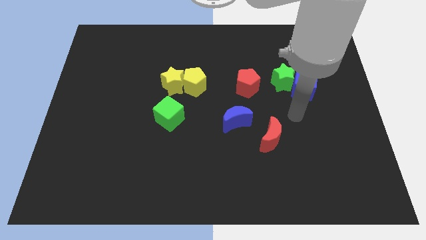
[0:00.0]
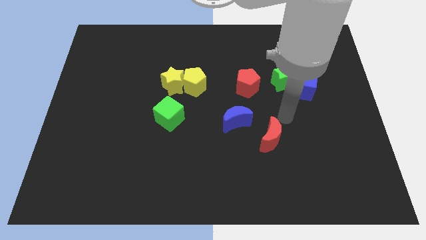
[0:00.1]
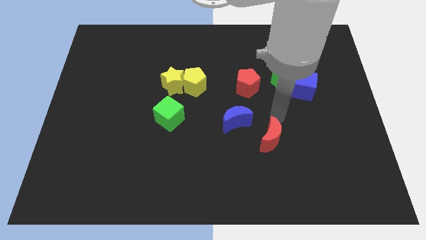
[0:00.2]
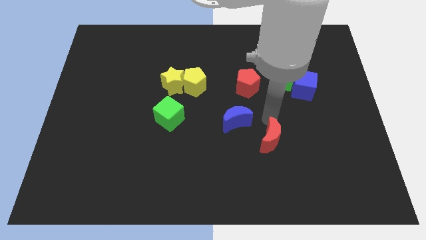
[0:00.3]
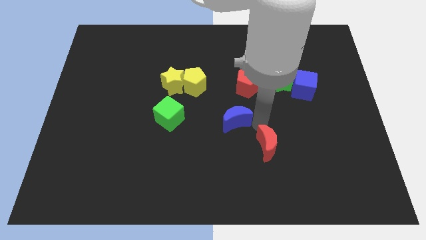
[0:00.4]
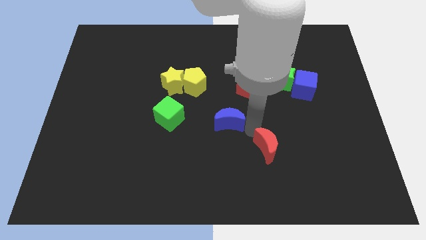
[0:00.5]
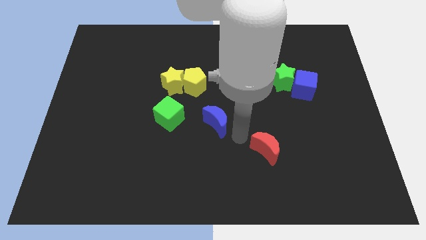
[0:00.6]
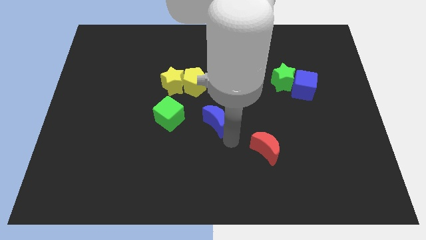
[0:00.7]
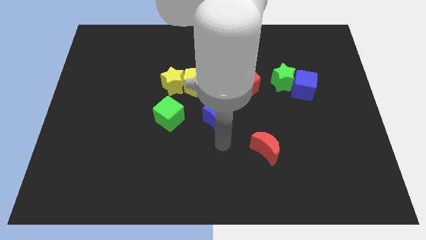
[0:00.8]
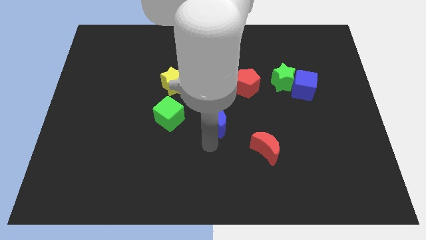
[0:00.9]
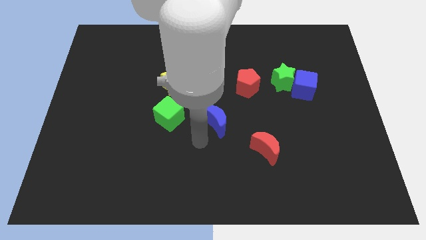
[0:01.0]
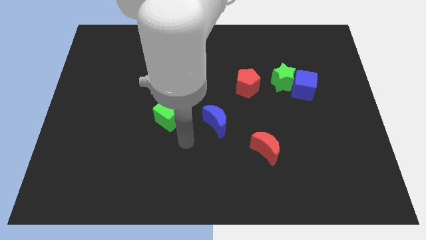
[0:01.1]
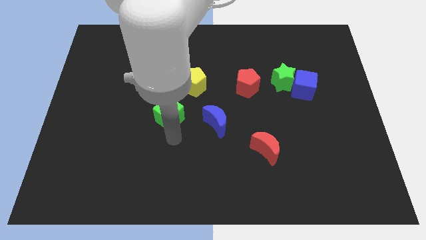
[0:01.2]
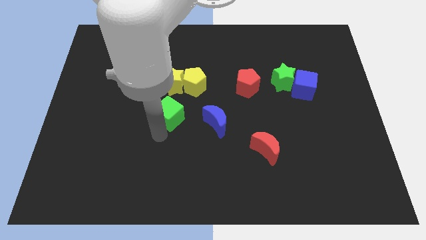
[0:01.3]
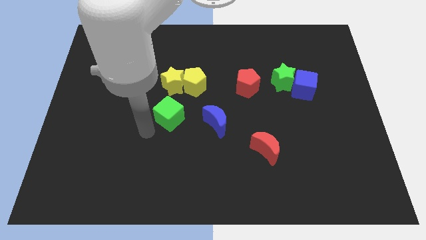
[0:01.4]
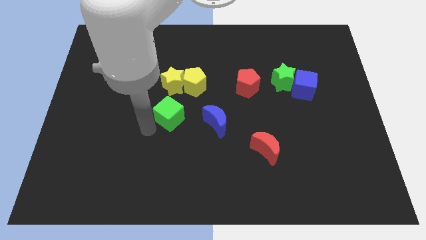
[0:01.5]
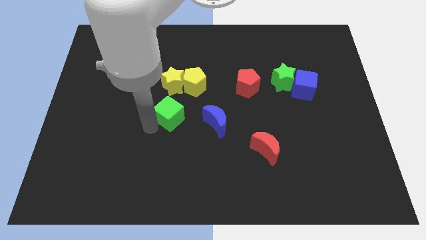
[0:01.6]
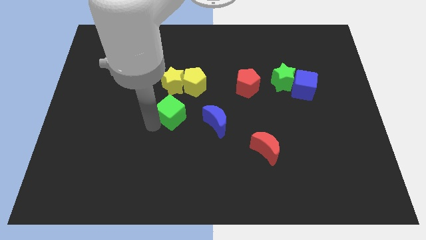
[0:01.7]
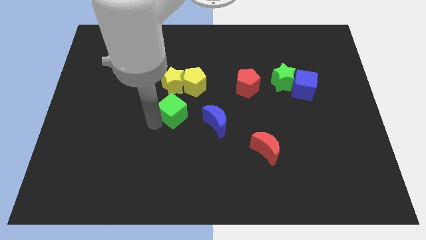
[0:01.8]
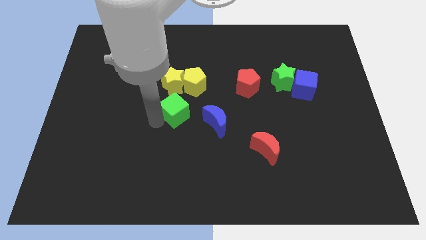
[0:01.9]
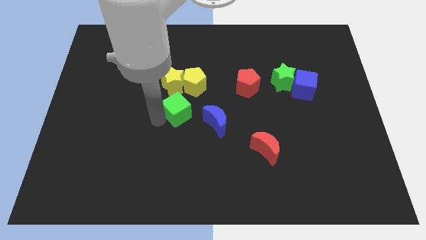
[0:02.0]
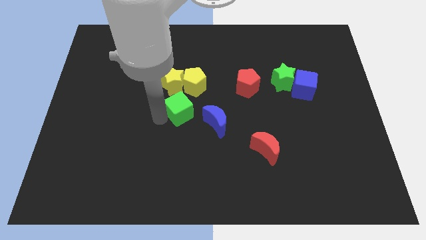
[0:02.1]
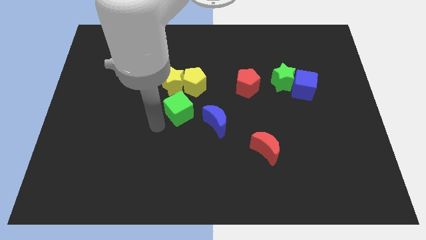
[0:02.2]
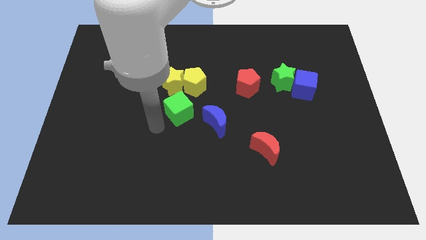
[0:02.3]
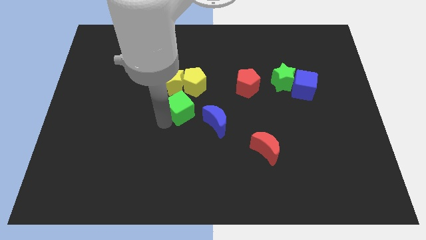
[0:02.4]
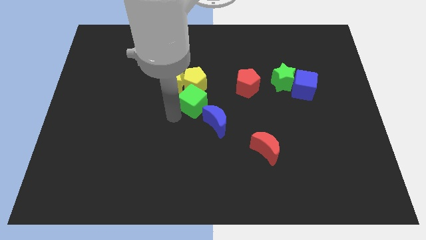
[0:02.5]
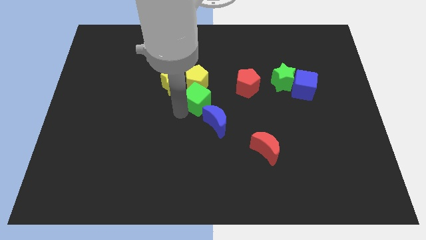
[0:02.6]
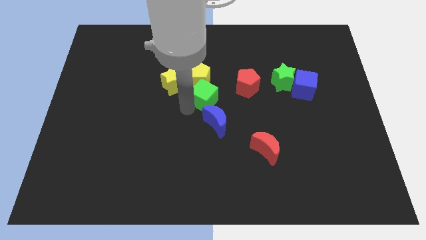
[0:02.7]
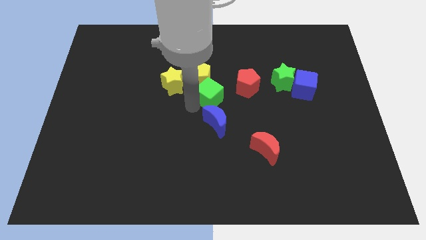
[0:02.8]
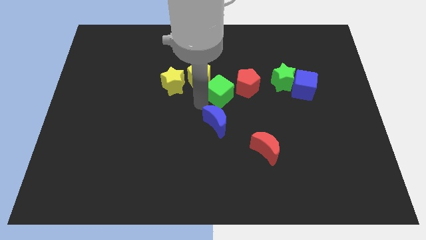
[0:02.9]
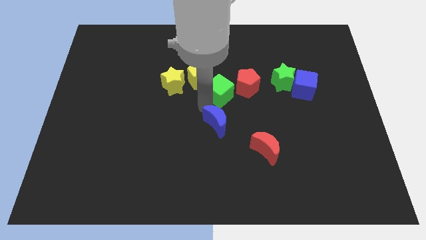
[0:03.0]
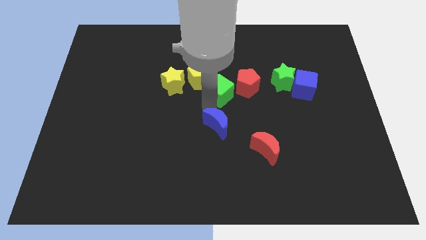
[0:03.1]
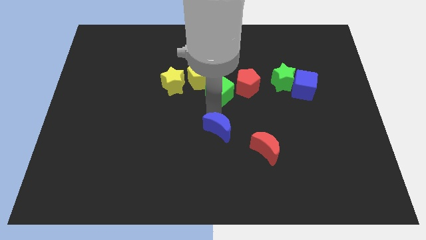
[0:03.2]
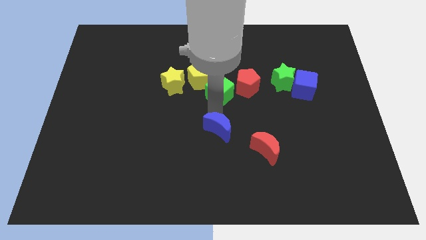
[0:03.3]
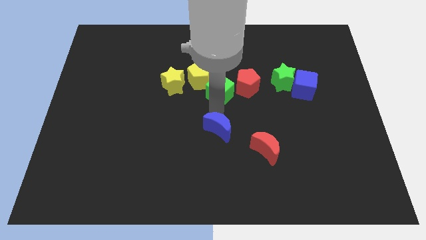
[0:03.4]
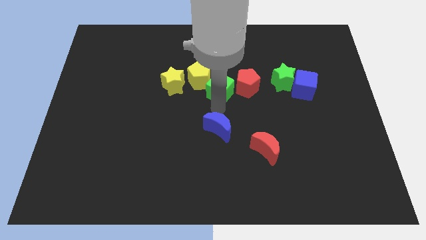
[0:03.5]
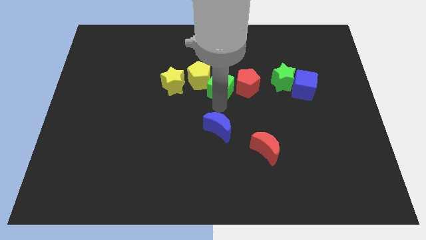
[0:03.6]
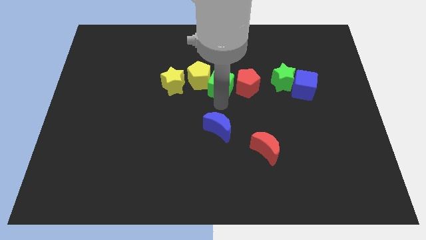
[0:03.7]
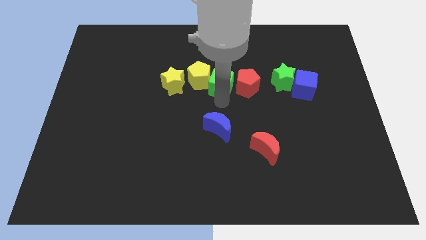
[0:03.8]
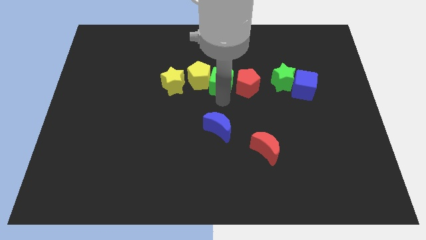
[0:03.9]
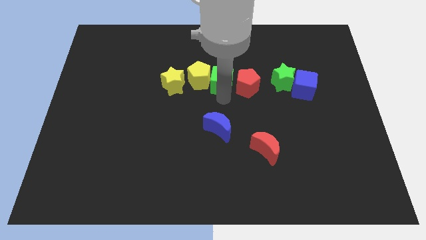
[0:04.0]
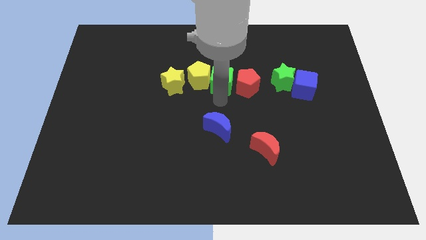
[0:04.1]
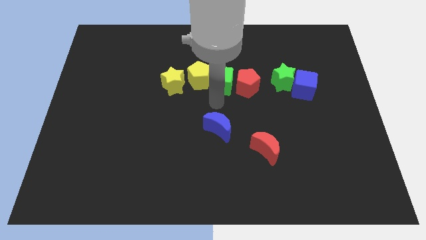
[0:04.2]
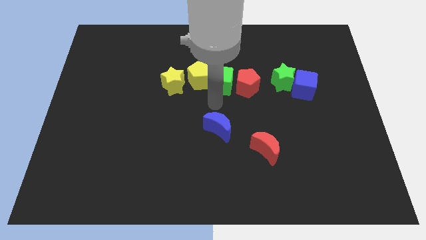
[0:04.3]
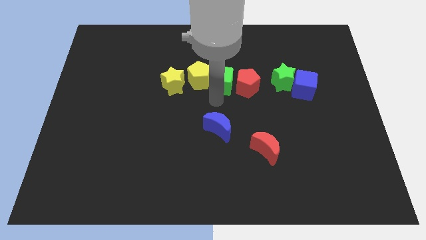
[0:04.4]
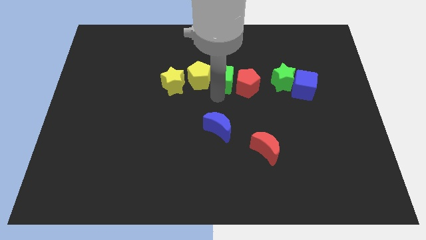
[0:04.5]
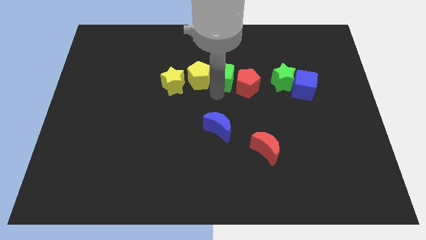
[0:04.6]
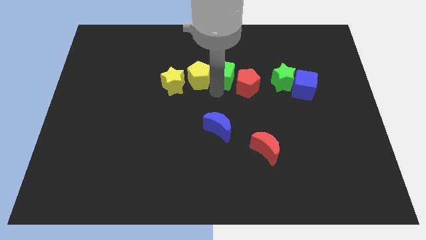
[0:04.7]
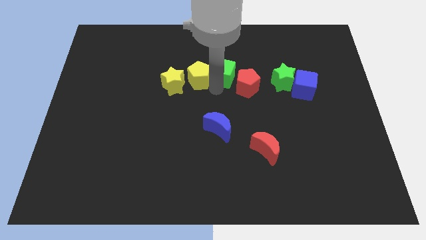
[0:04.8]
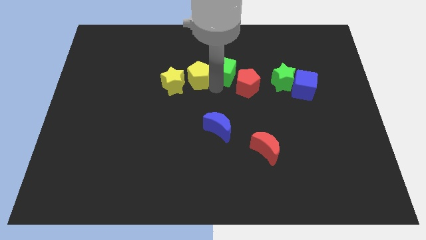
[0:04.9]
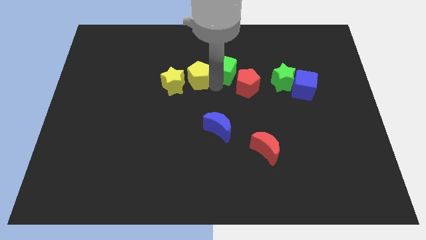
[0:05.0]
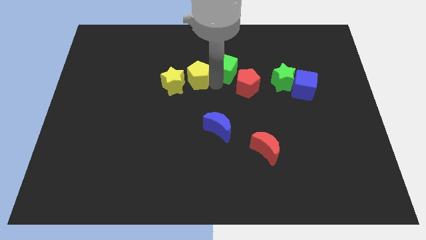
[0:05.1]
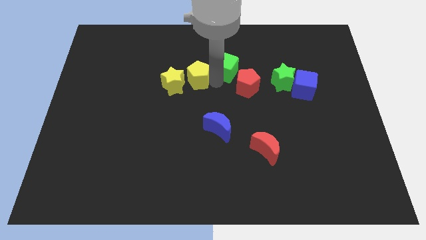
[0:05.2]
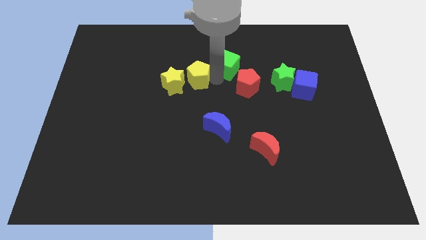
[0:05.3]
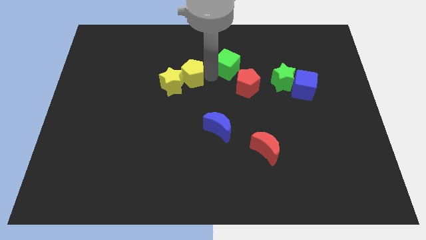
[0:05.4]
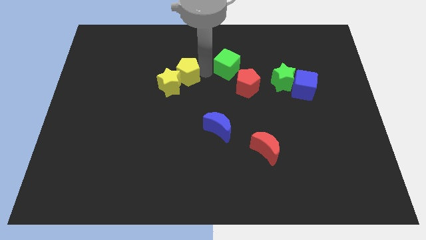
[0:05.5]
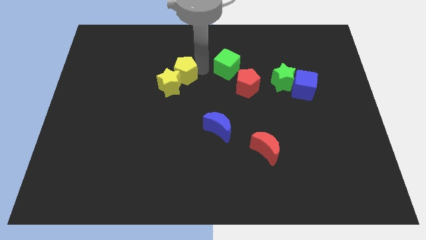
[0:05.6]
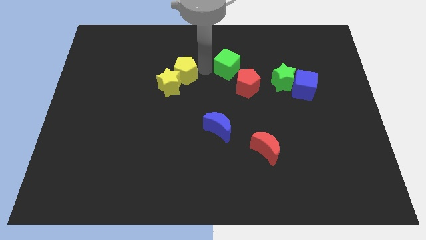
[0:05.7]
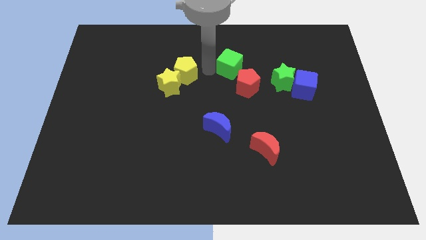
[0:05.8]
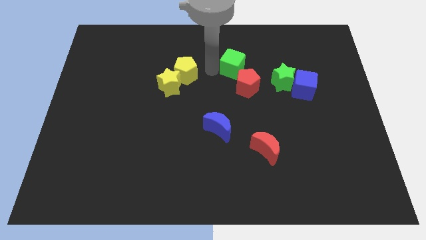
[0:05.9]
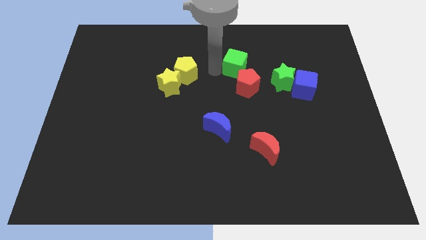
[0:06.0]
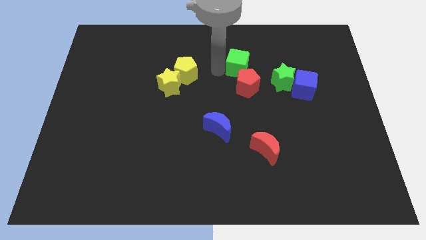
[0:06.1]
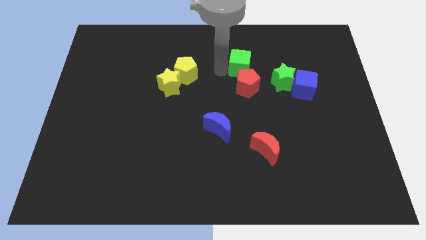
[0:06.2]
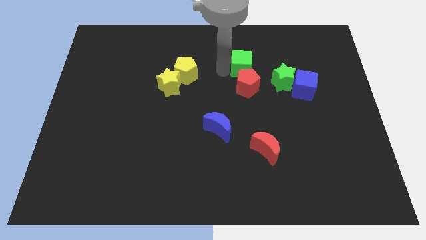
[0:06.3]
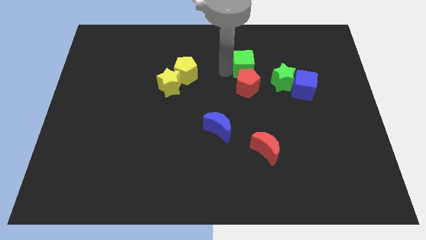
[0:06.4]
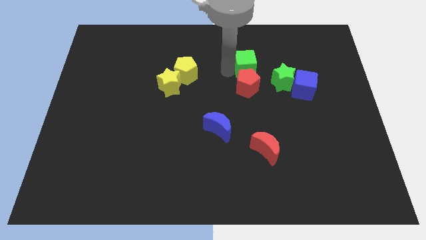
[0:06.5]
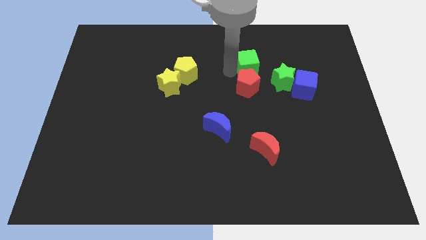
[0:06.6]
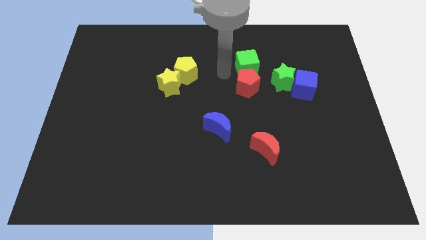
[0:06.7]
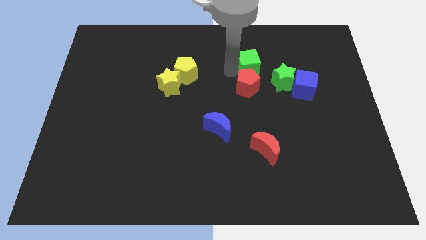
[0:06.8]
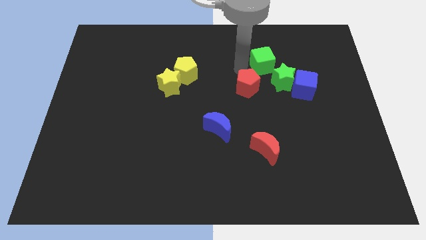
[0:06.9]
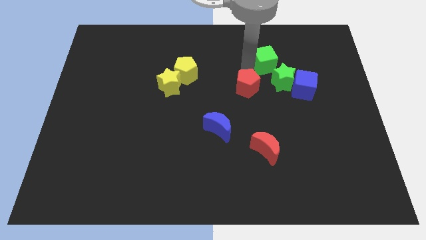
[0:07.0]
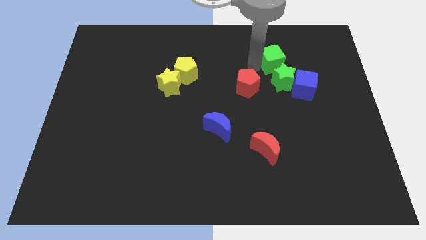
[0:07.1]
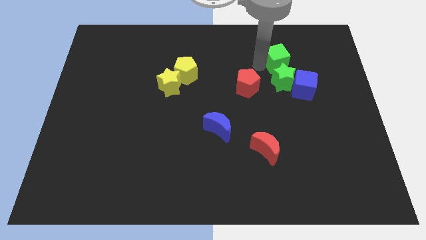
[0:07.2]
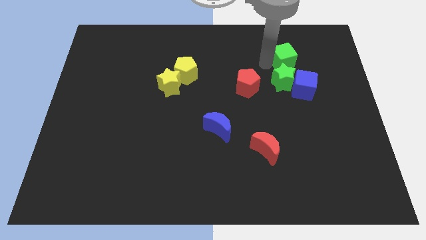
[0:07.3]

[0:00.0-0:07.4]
push the green cube to the top of the blue cube
